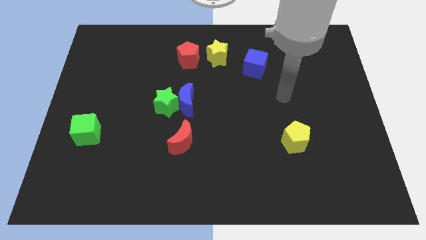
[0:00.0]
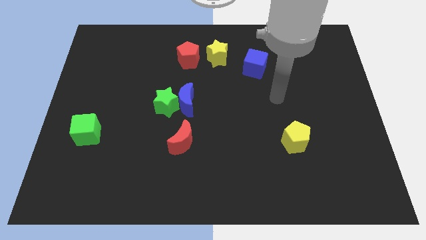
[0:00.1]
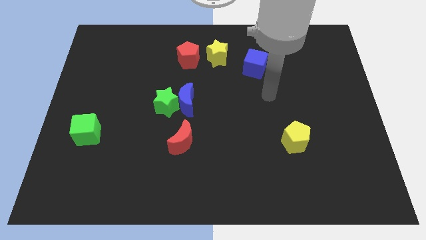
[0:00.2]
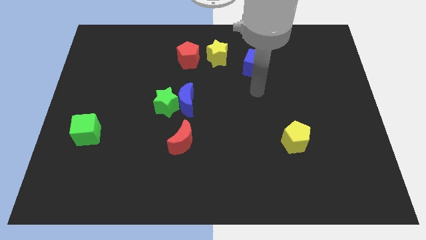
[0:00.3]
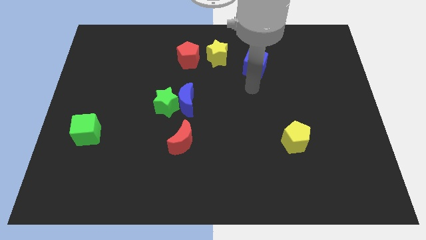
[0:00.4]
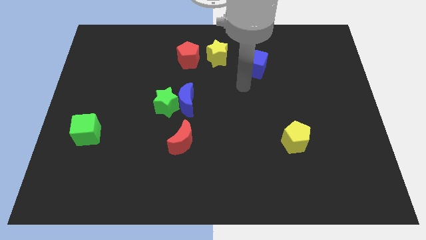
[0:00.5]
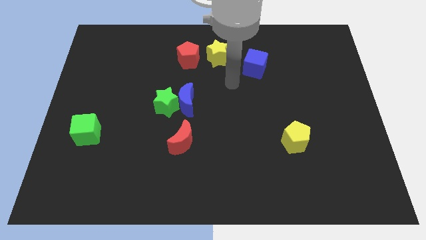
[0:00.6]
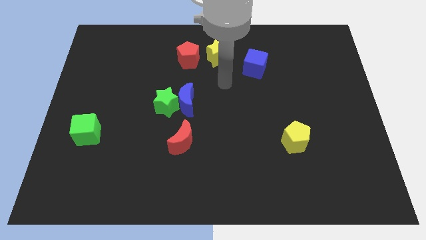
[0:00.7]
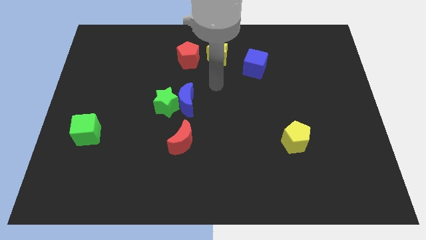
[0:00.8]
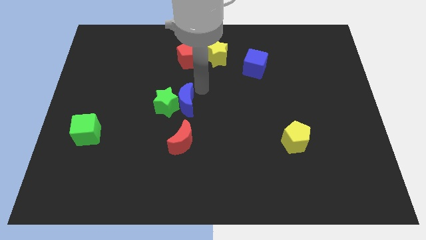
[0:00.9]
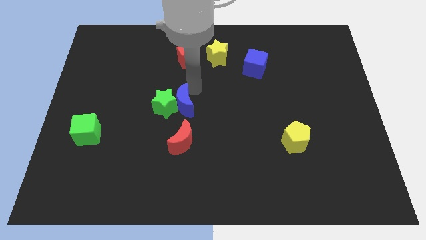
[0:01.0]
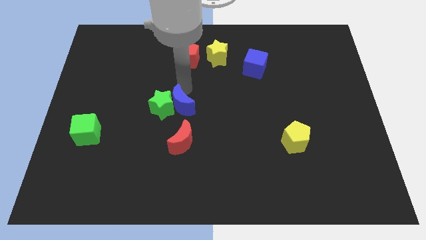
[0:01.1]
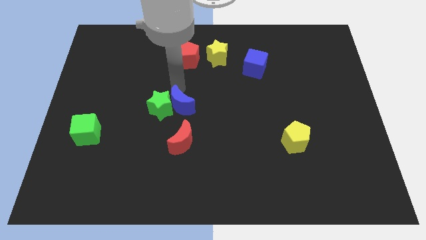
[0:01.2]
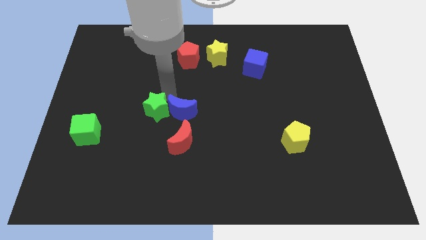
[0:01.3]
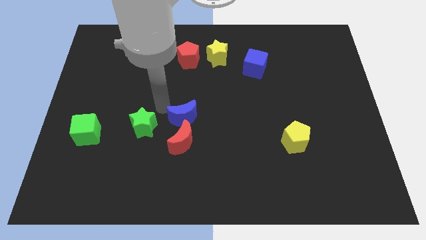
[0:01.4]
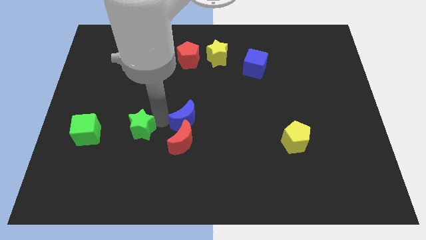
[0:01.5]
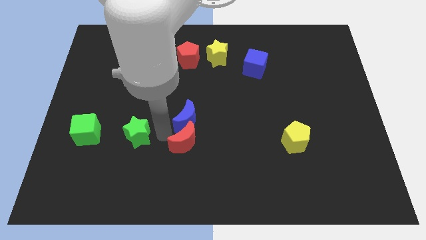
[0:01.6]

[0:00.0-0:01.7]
separate the blue moon from the green star

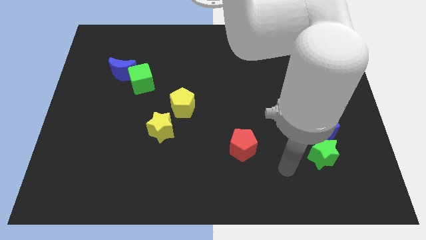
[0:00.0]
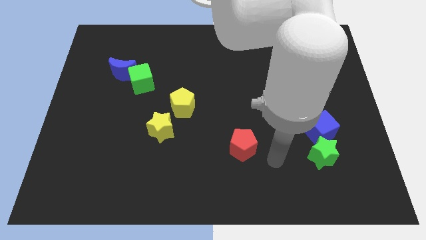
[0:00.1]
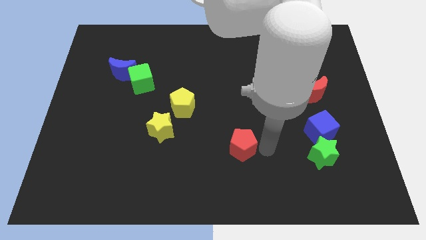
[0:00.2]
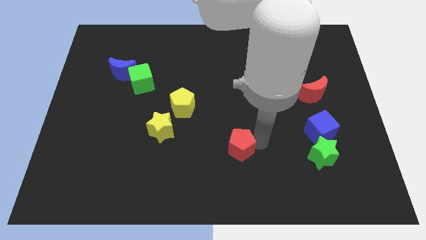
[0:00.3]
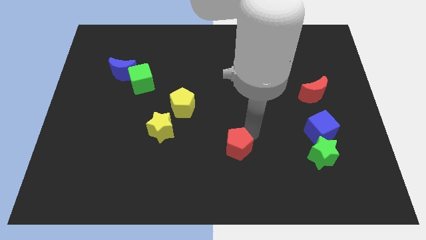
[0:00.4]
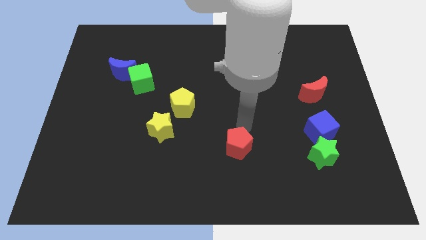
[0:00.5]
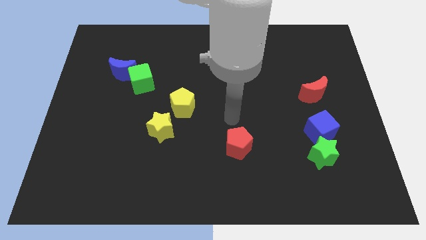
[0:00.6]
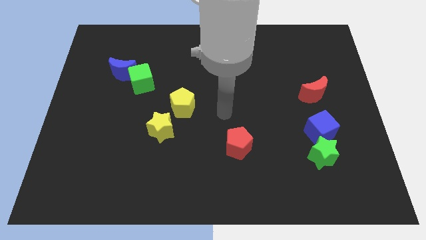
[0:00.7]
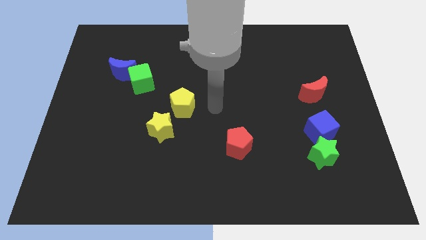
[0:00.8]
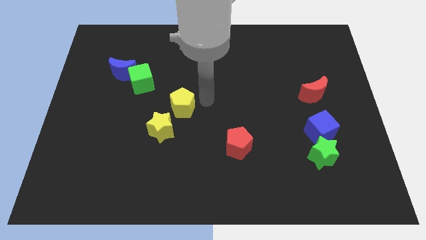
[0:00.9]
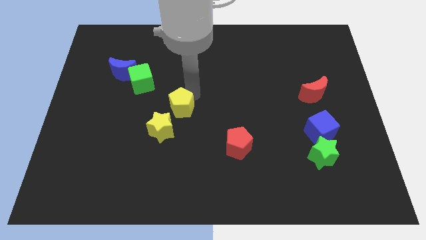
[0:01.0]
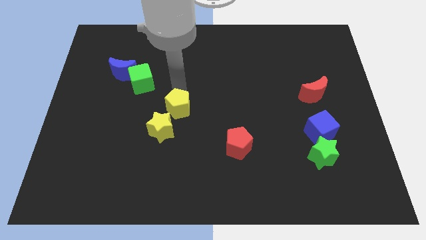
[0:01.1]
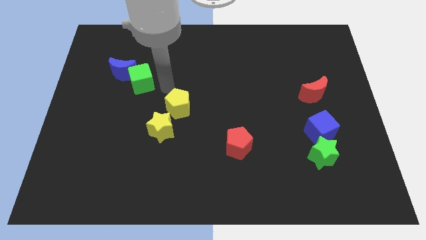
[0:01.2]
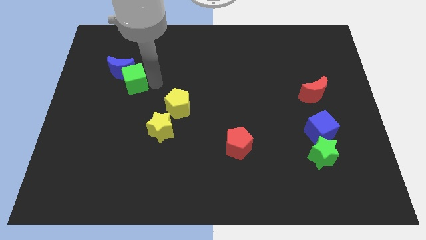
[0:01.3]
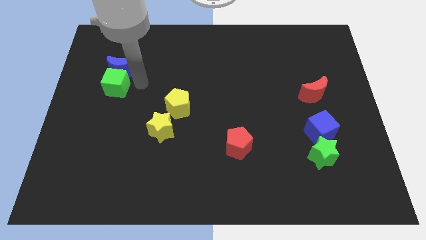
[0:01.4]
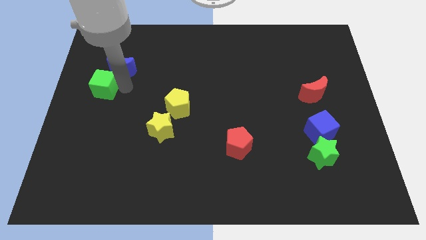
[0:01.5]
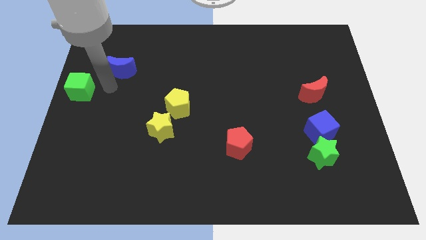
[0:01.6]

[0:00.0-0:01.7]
move the blue moon away from the green cube

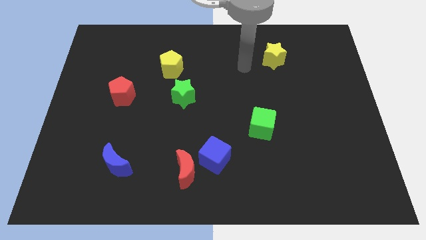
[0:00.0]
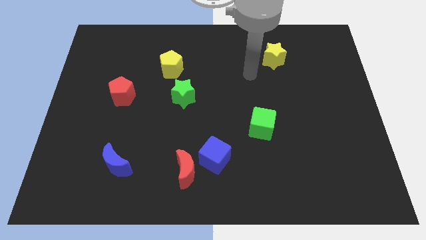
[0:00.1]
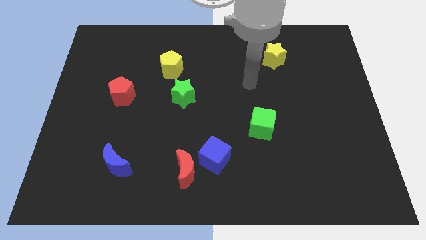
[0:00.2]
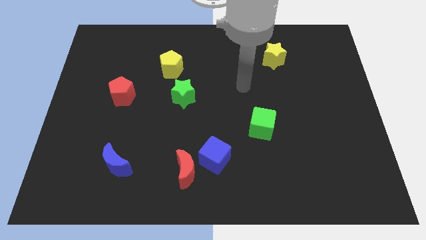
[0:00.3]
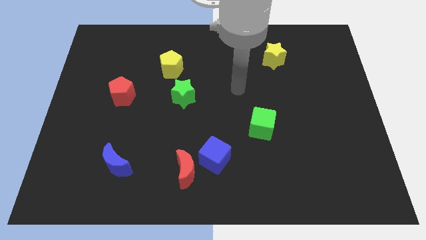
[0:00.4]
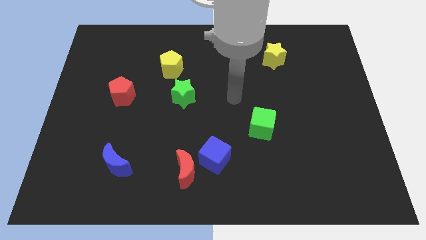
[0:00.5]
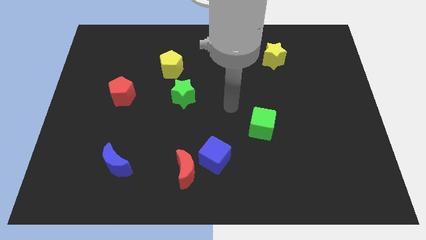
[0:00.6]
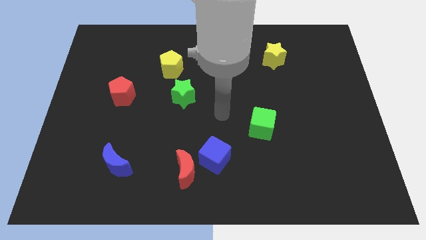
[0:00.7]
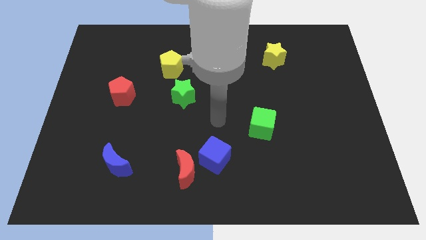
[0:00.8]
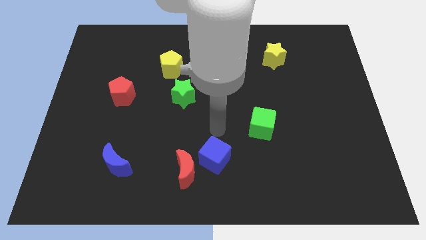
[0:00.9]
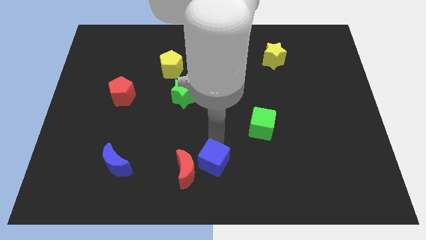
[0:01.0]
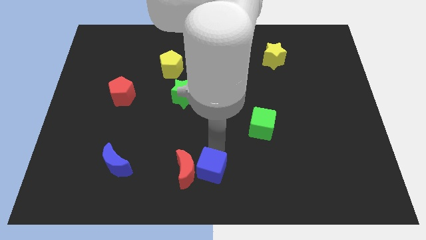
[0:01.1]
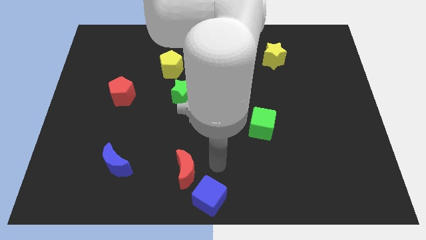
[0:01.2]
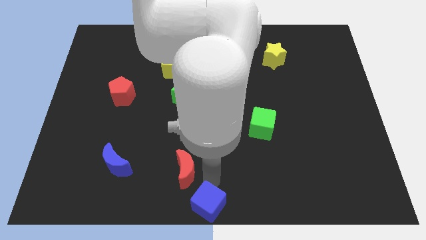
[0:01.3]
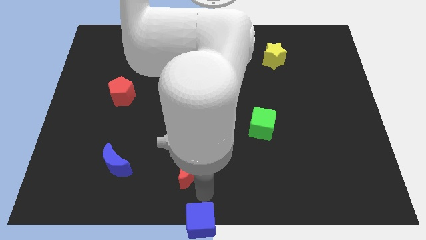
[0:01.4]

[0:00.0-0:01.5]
separate the red moon from the blue cube

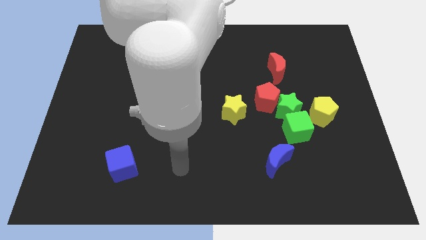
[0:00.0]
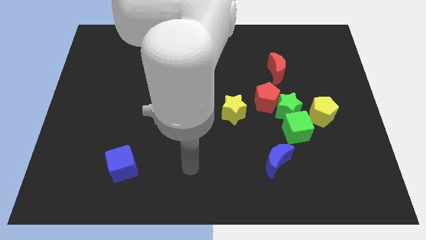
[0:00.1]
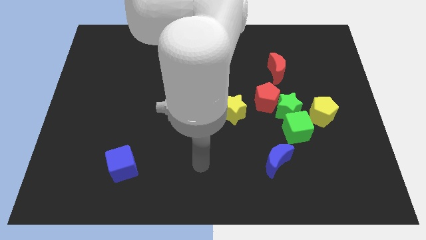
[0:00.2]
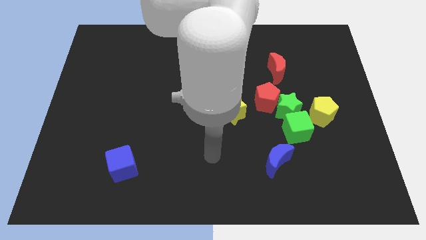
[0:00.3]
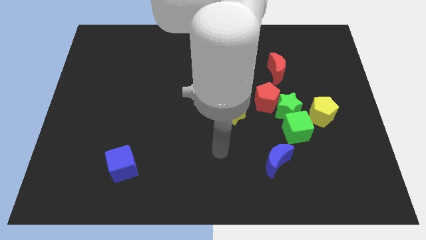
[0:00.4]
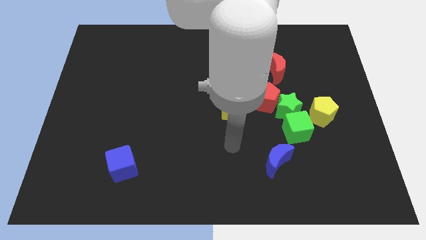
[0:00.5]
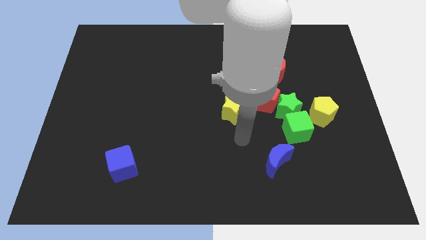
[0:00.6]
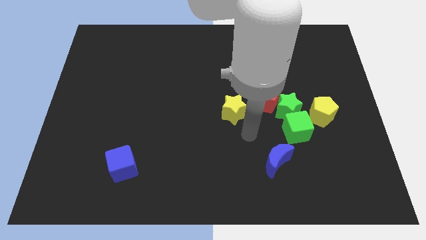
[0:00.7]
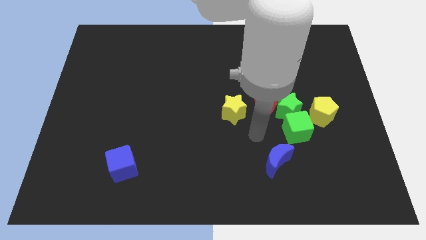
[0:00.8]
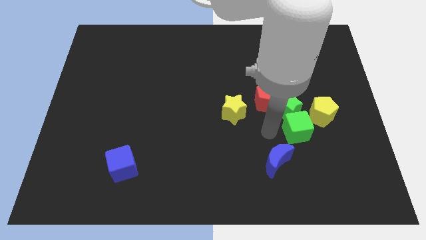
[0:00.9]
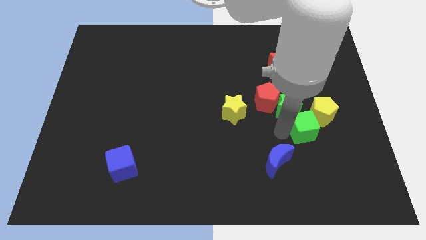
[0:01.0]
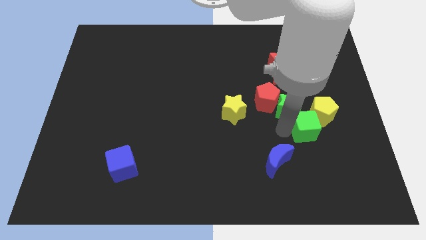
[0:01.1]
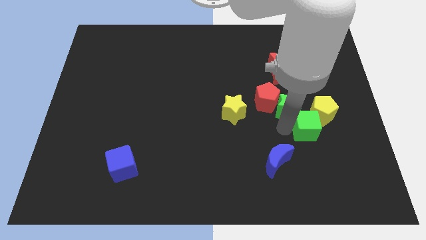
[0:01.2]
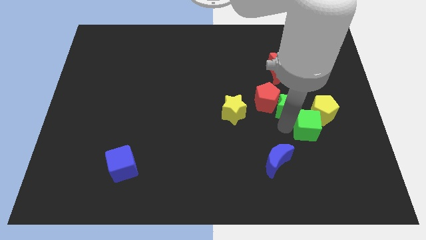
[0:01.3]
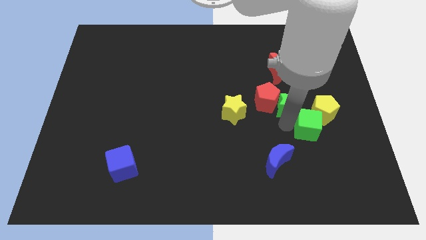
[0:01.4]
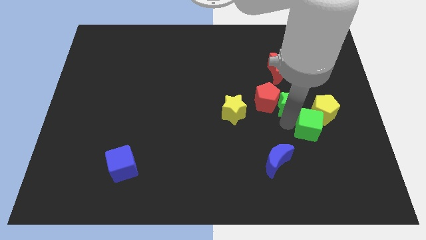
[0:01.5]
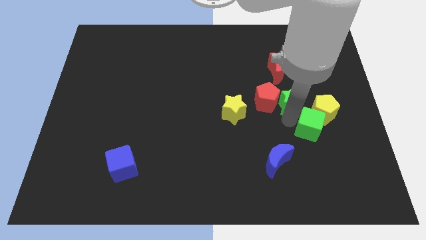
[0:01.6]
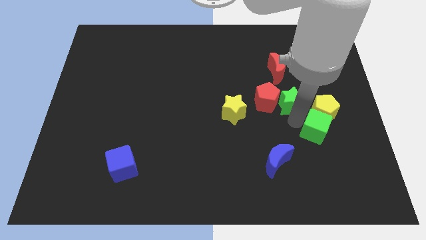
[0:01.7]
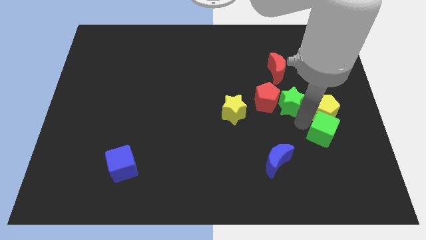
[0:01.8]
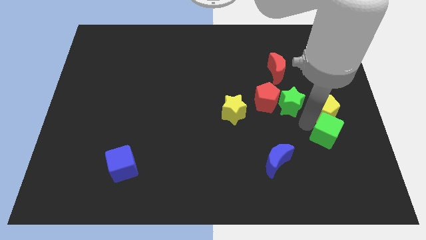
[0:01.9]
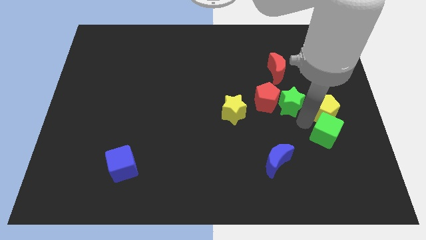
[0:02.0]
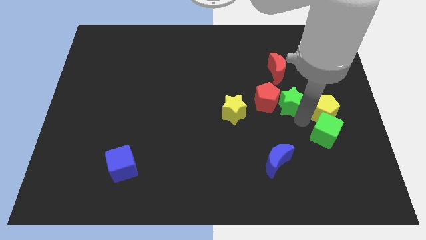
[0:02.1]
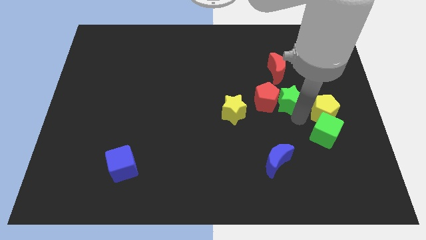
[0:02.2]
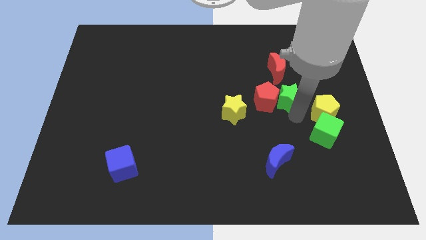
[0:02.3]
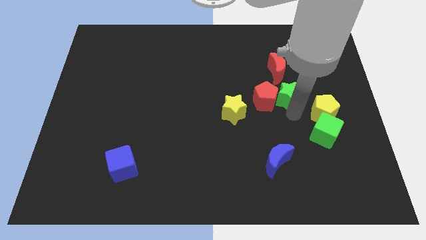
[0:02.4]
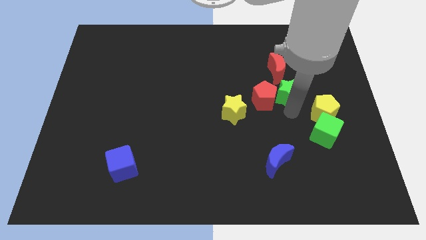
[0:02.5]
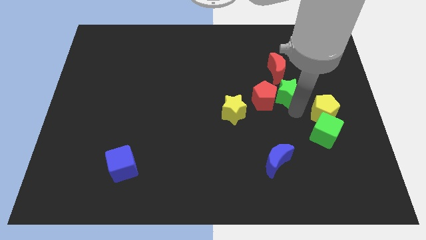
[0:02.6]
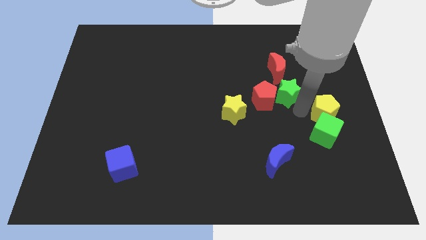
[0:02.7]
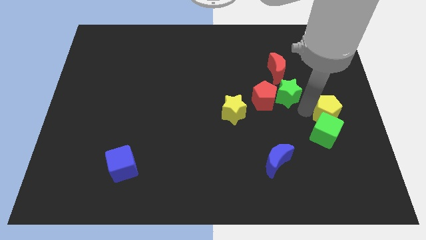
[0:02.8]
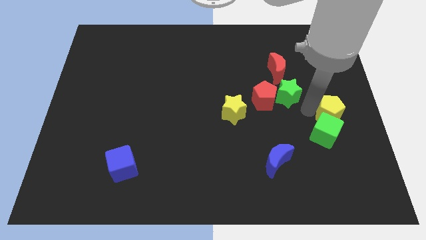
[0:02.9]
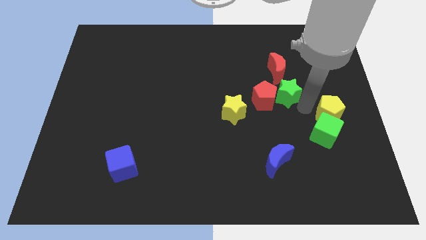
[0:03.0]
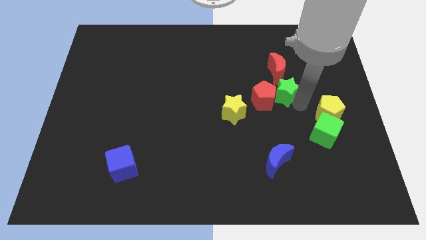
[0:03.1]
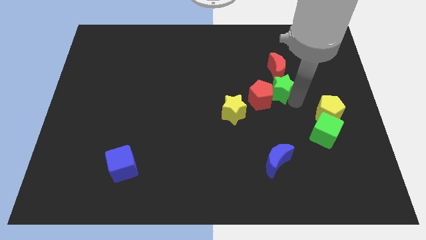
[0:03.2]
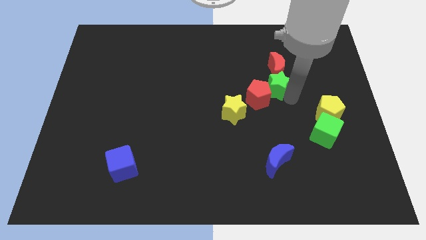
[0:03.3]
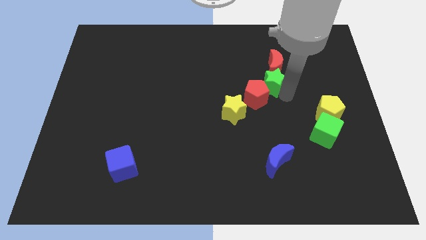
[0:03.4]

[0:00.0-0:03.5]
separate the green star from the red pentagon, green cube, and yellow pentagon

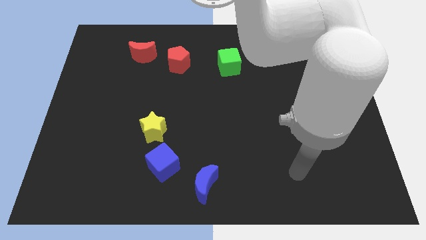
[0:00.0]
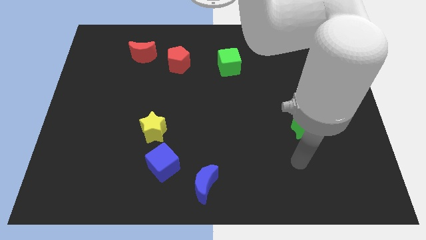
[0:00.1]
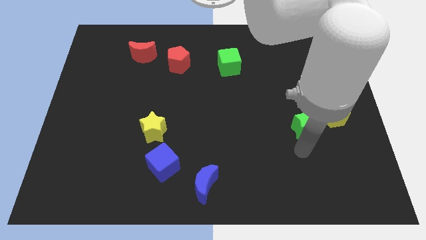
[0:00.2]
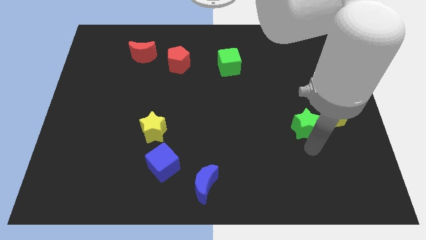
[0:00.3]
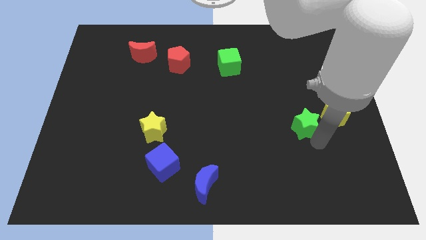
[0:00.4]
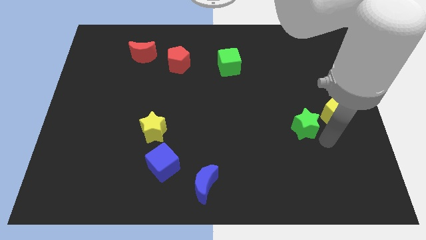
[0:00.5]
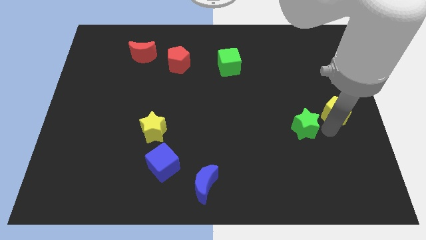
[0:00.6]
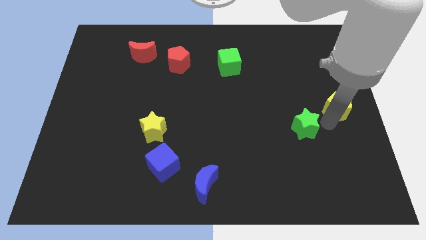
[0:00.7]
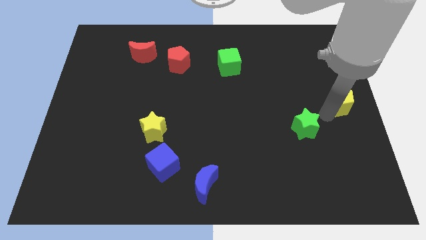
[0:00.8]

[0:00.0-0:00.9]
pull the green star apart from the yellow pentagon
